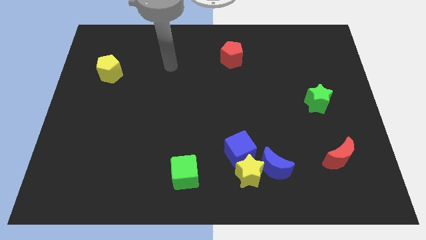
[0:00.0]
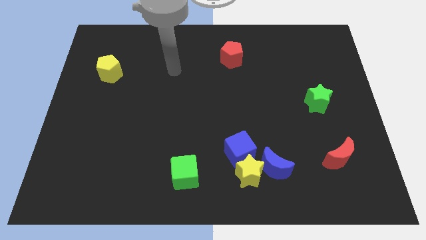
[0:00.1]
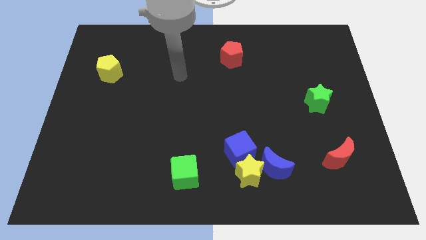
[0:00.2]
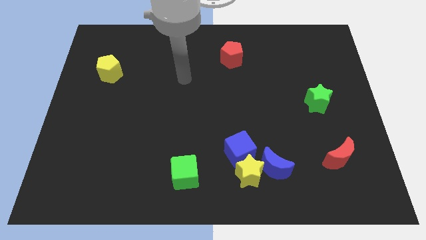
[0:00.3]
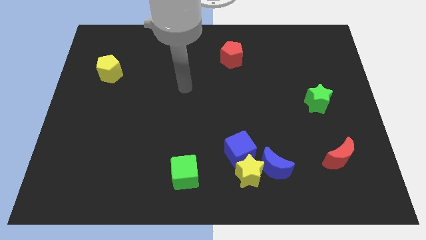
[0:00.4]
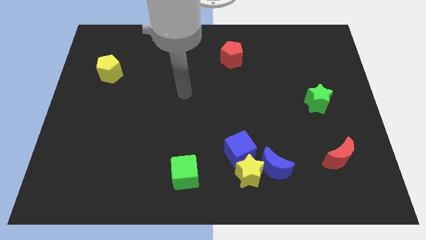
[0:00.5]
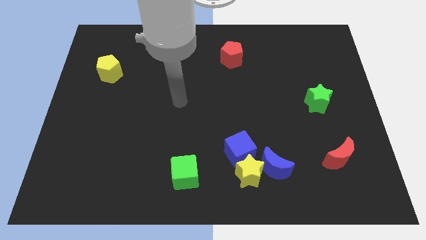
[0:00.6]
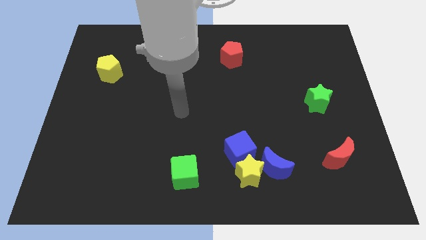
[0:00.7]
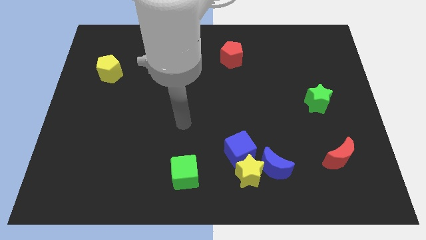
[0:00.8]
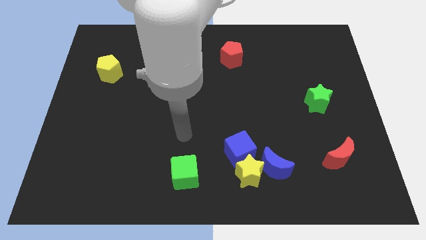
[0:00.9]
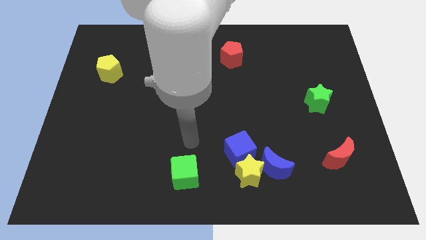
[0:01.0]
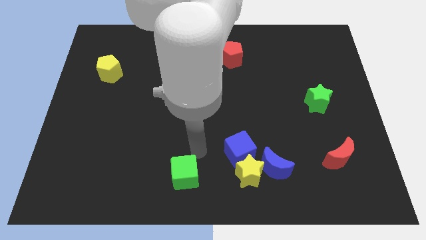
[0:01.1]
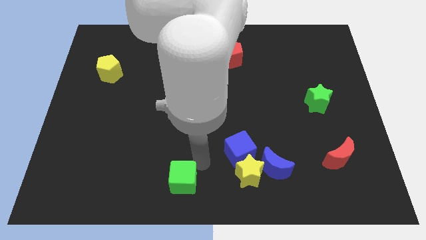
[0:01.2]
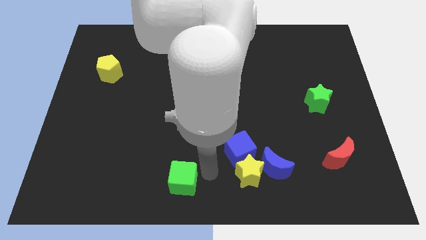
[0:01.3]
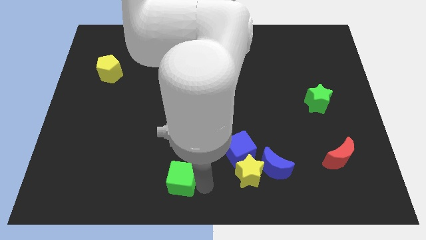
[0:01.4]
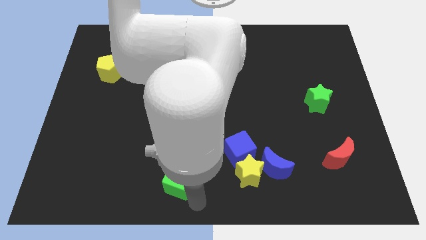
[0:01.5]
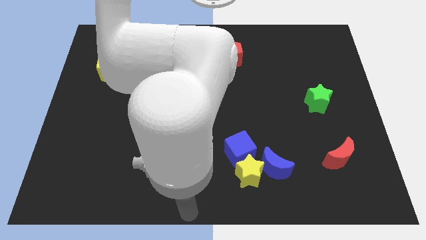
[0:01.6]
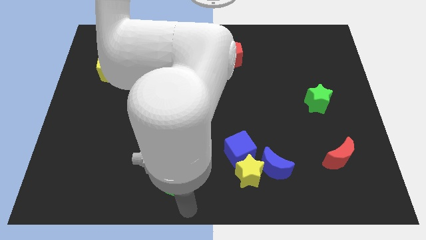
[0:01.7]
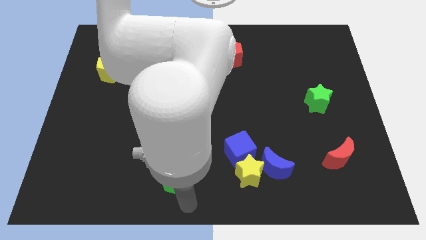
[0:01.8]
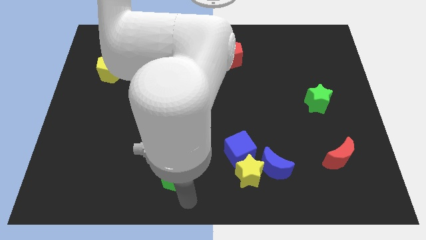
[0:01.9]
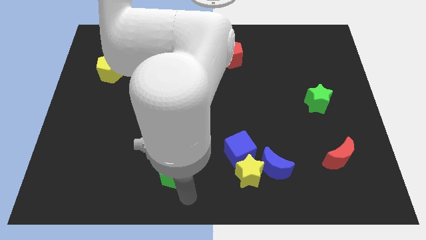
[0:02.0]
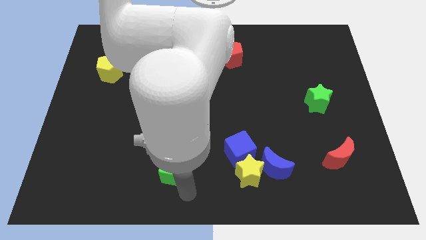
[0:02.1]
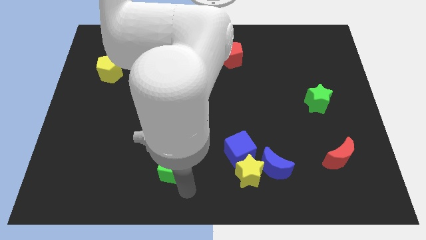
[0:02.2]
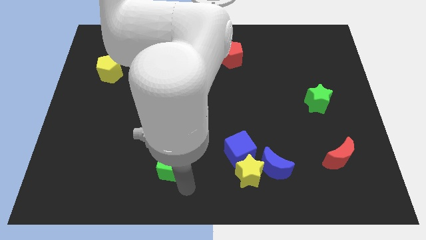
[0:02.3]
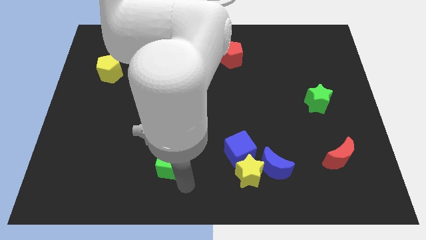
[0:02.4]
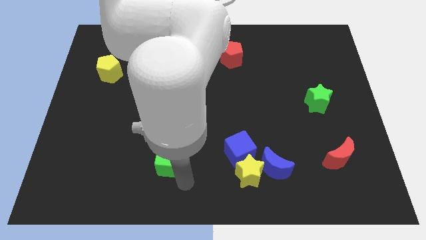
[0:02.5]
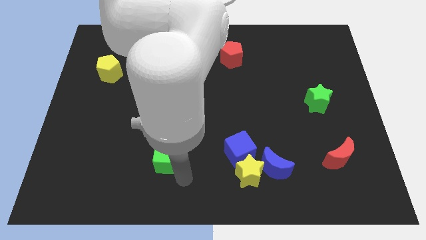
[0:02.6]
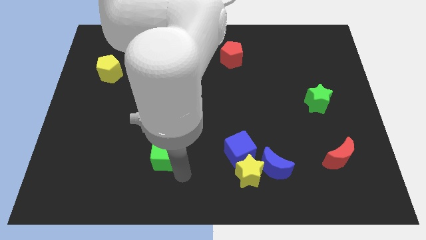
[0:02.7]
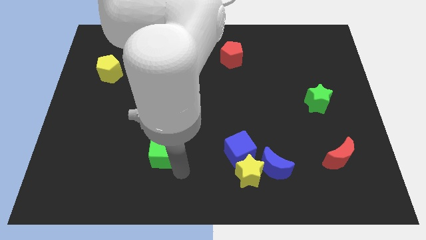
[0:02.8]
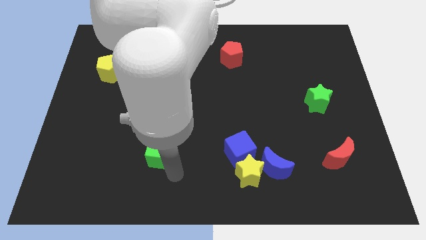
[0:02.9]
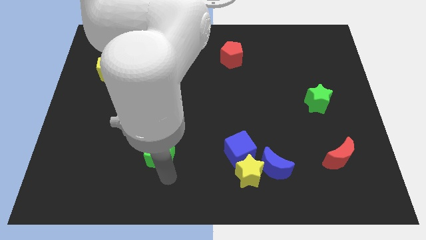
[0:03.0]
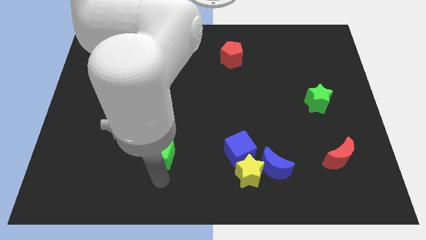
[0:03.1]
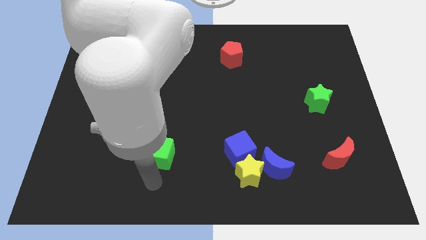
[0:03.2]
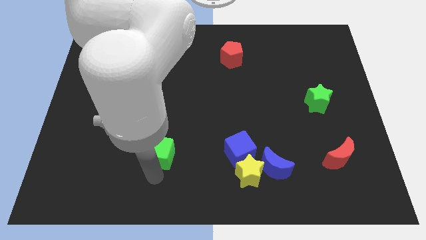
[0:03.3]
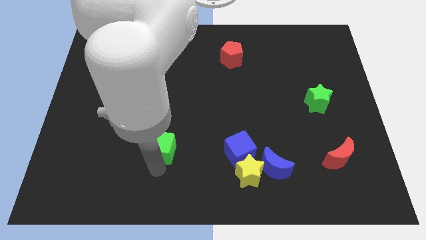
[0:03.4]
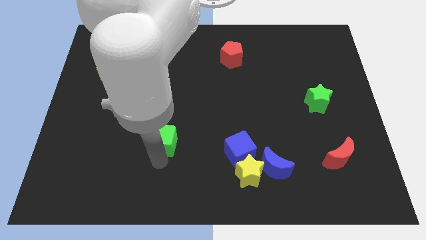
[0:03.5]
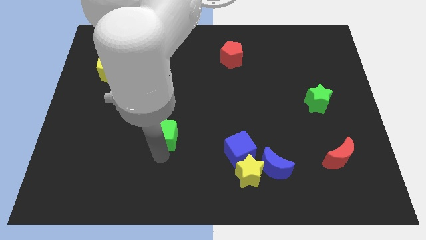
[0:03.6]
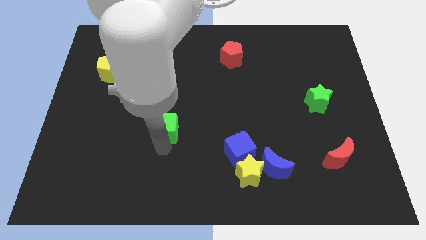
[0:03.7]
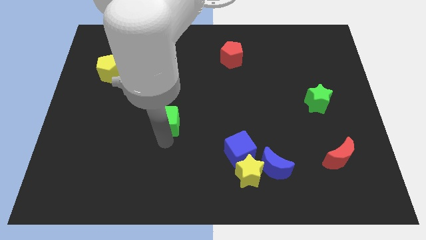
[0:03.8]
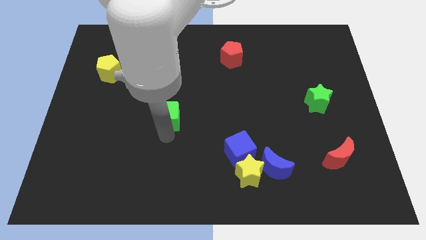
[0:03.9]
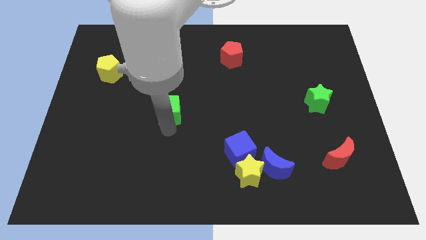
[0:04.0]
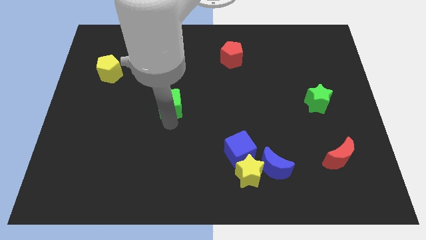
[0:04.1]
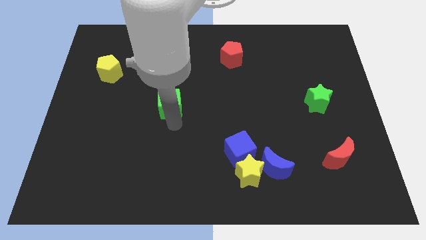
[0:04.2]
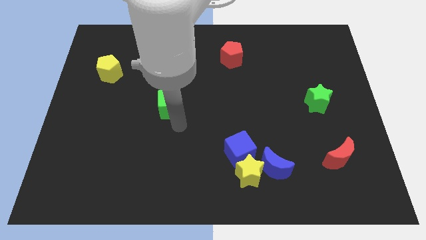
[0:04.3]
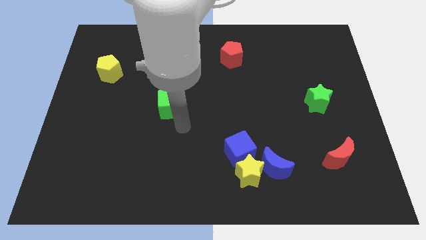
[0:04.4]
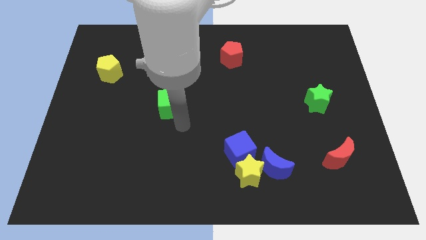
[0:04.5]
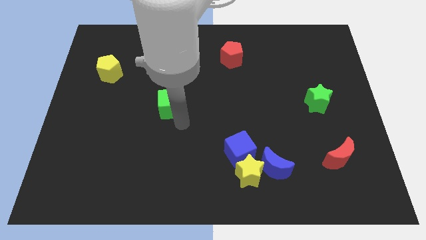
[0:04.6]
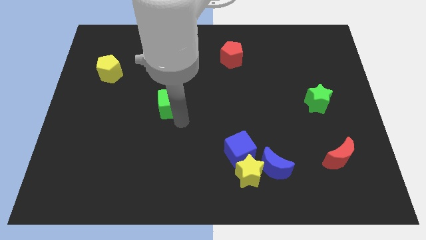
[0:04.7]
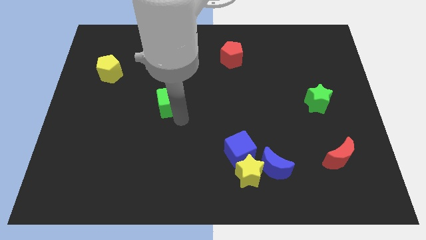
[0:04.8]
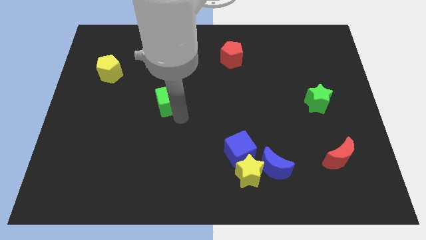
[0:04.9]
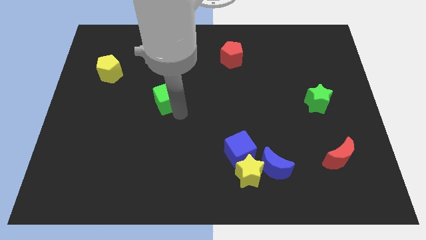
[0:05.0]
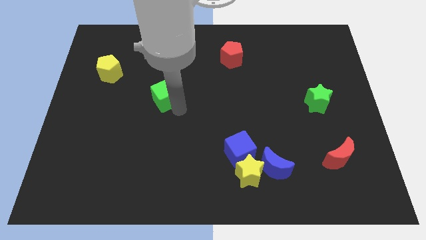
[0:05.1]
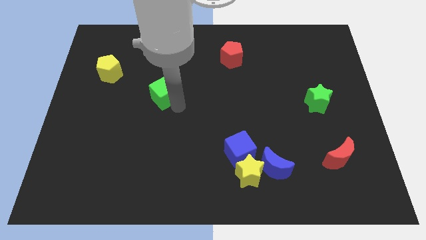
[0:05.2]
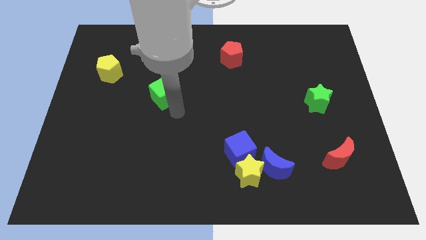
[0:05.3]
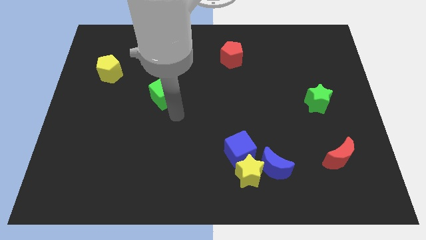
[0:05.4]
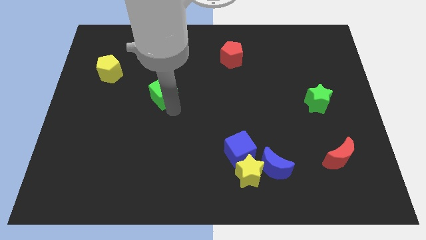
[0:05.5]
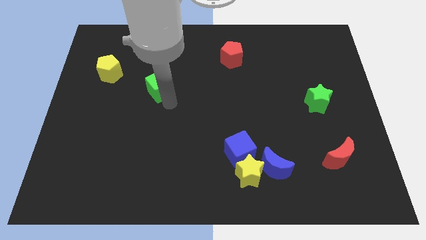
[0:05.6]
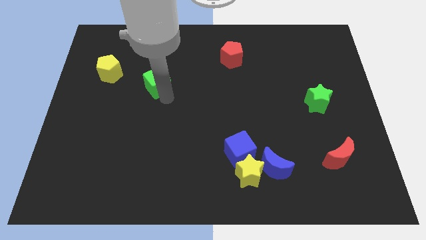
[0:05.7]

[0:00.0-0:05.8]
push the green cube to the right of the yellow pentagon

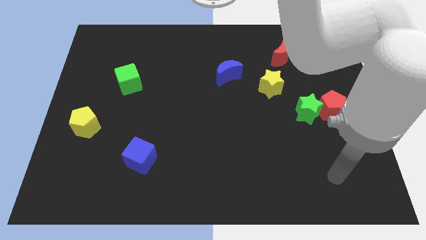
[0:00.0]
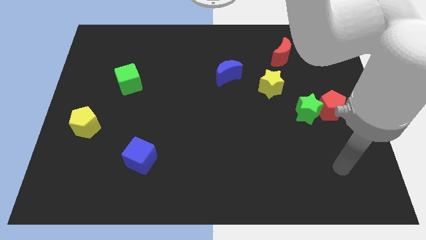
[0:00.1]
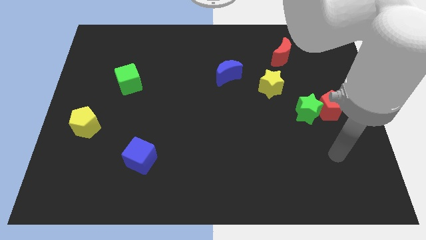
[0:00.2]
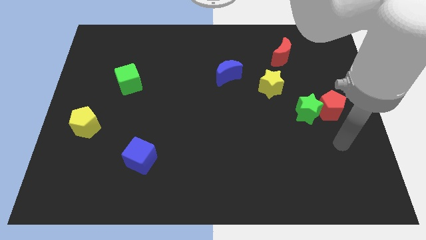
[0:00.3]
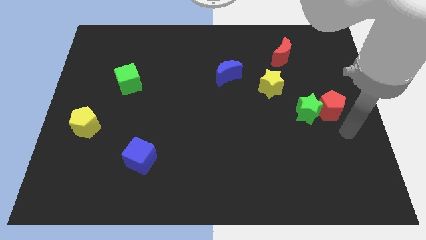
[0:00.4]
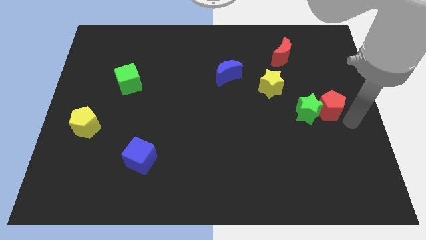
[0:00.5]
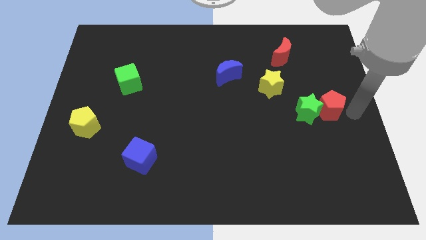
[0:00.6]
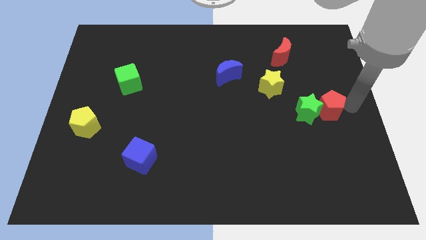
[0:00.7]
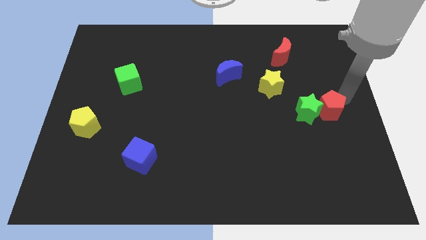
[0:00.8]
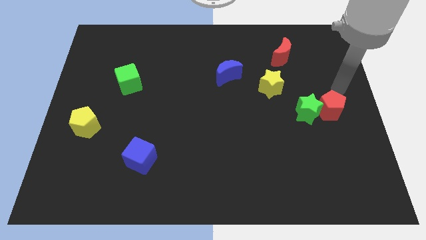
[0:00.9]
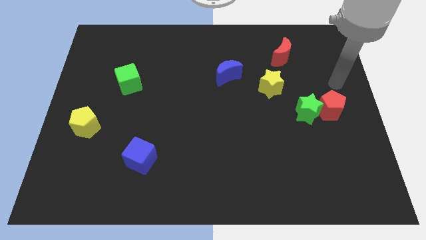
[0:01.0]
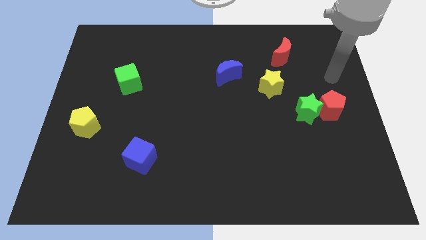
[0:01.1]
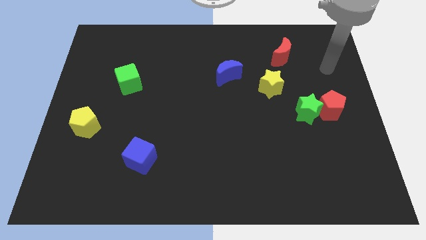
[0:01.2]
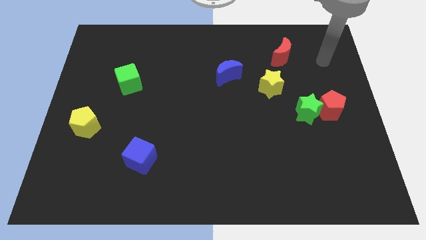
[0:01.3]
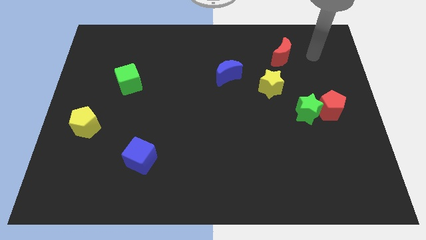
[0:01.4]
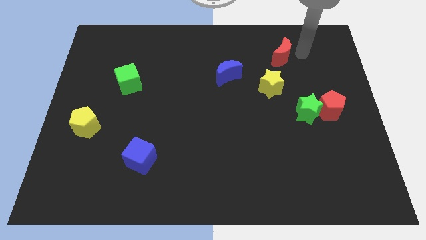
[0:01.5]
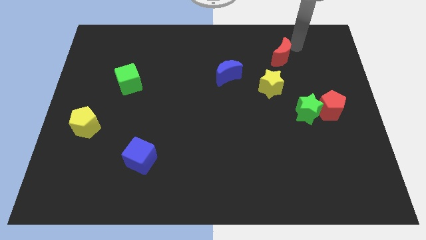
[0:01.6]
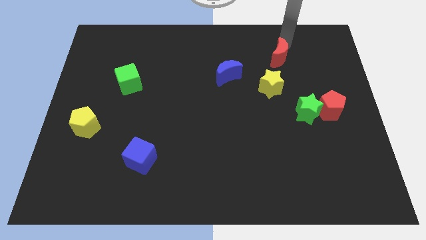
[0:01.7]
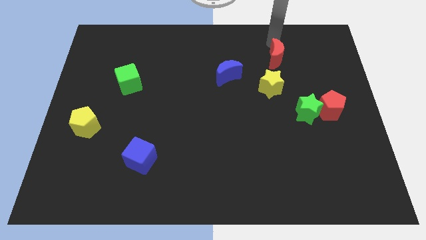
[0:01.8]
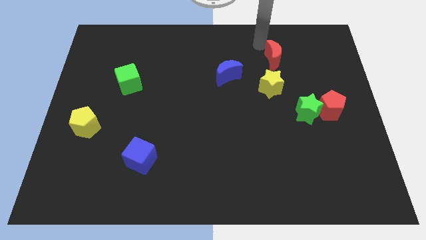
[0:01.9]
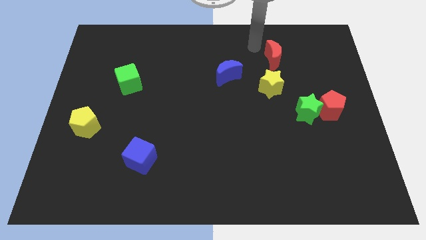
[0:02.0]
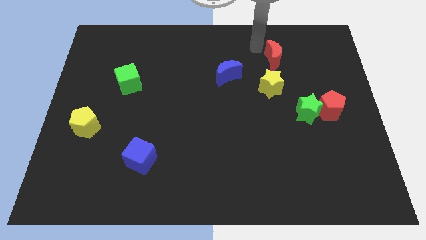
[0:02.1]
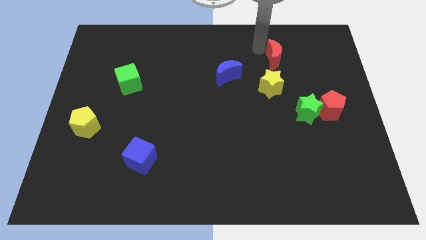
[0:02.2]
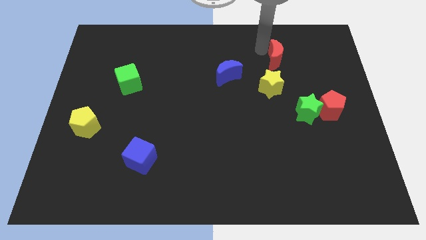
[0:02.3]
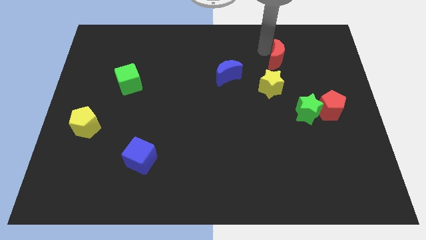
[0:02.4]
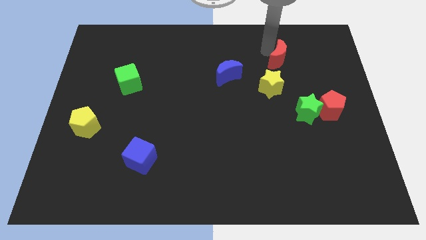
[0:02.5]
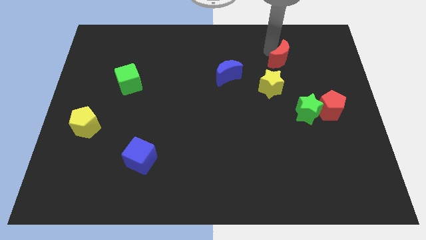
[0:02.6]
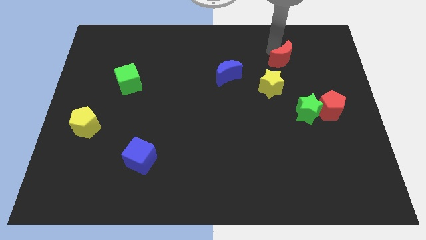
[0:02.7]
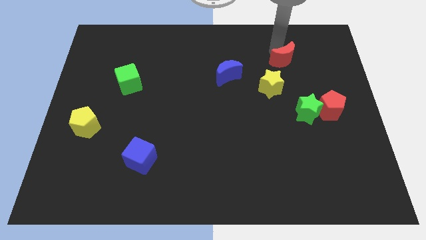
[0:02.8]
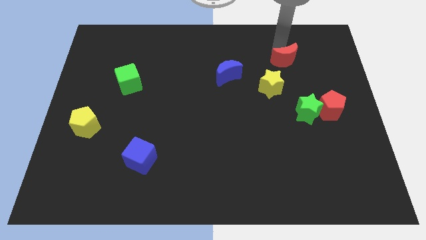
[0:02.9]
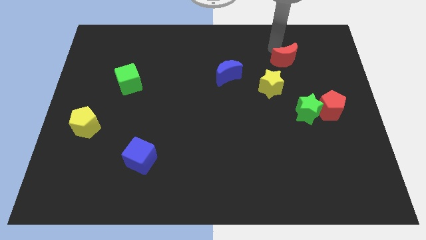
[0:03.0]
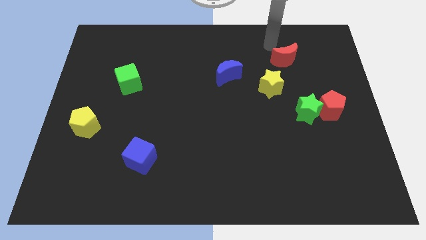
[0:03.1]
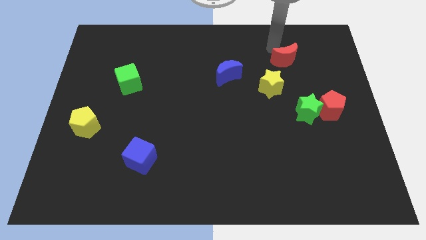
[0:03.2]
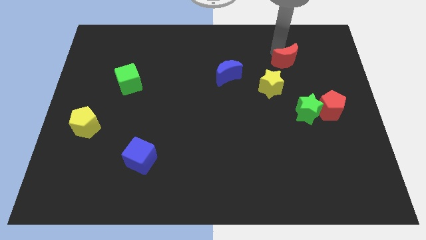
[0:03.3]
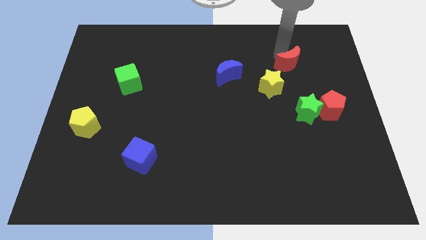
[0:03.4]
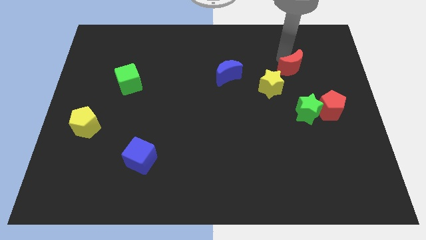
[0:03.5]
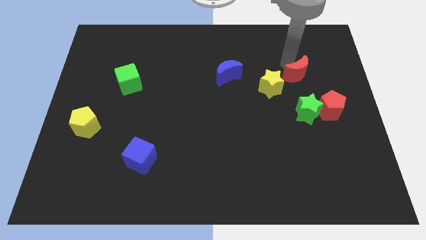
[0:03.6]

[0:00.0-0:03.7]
push the red moon to the right side of the yellow star
